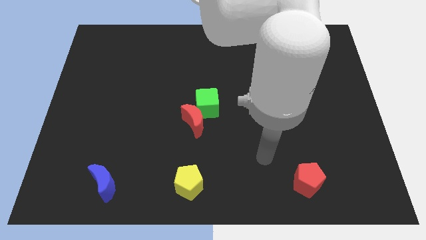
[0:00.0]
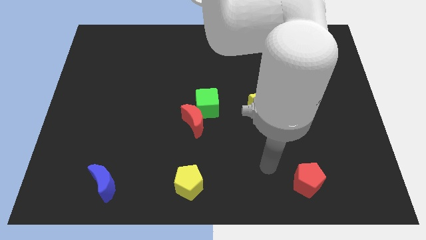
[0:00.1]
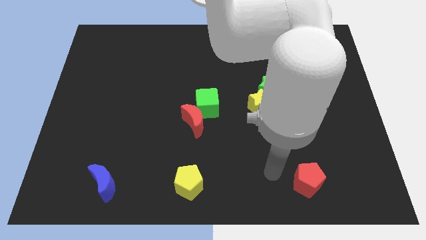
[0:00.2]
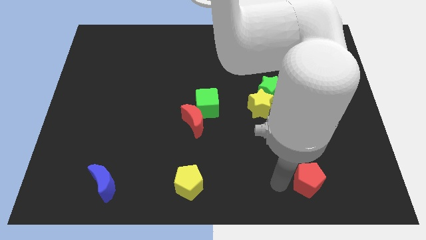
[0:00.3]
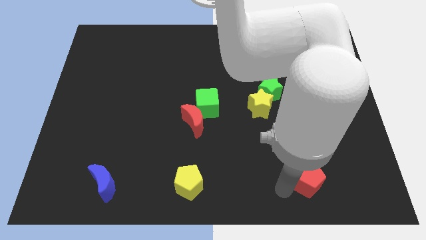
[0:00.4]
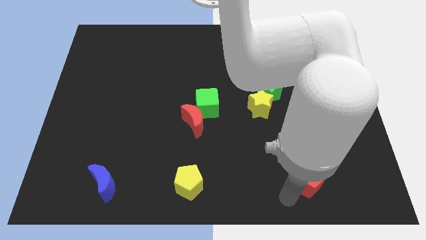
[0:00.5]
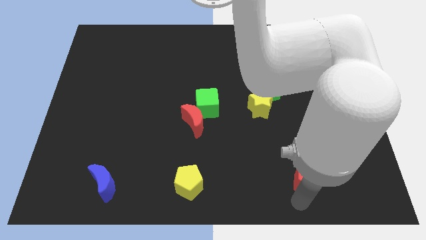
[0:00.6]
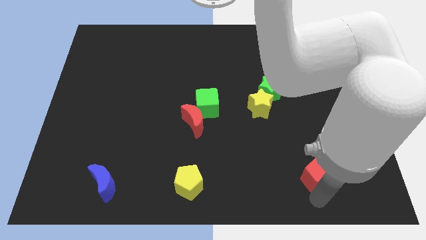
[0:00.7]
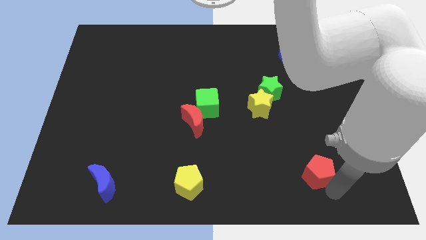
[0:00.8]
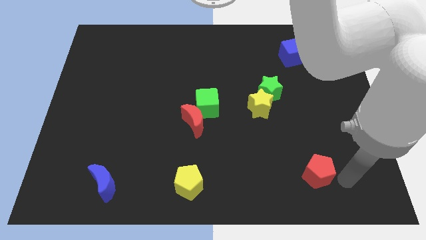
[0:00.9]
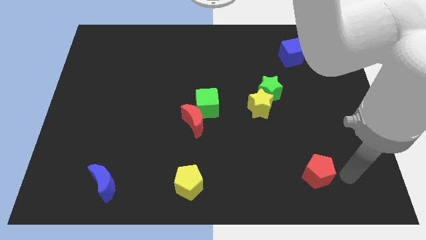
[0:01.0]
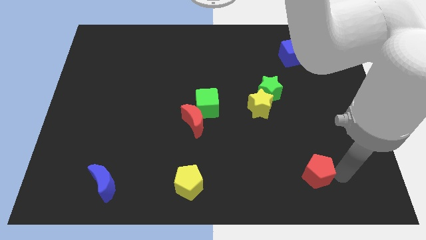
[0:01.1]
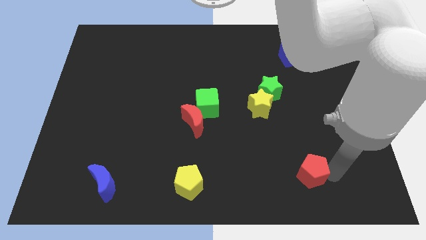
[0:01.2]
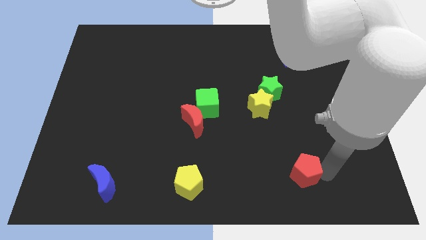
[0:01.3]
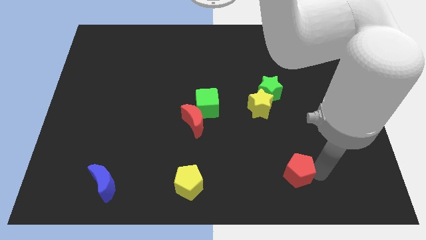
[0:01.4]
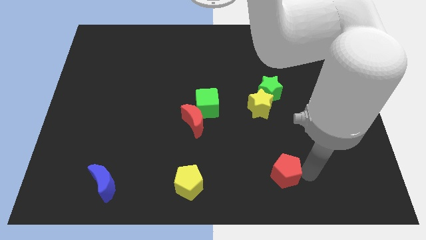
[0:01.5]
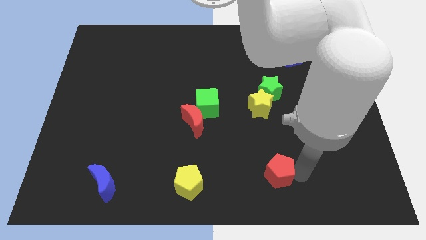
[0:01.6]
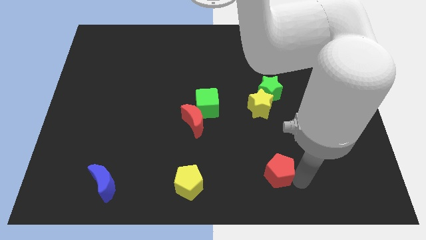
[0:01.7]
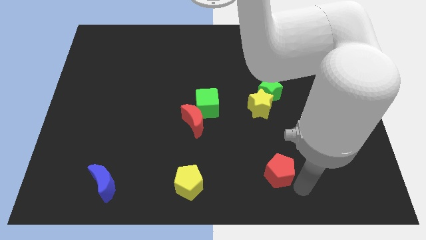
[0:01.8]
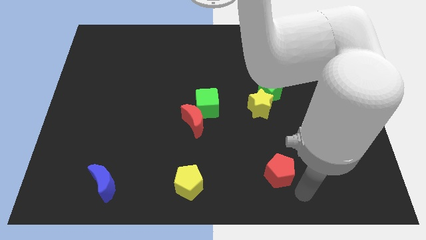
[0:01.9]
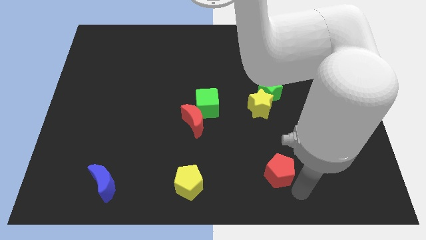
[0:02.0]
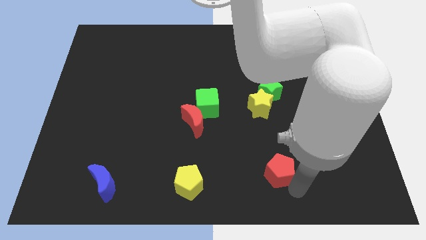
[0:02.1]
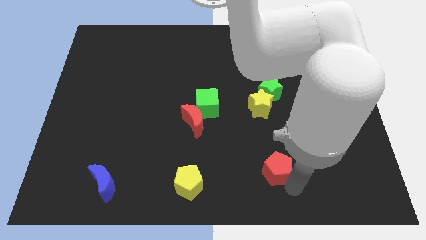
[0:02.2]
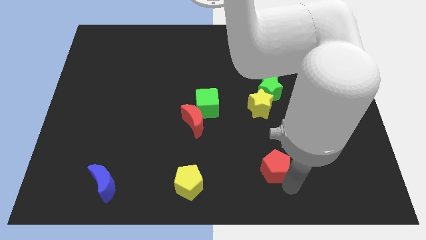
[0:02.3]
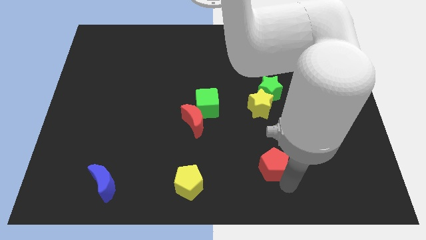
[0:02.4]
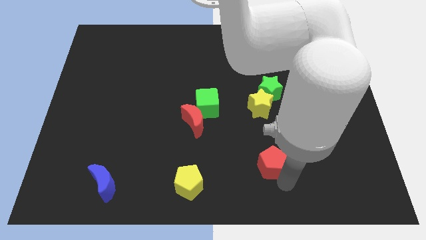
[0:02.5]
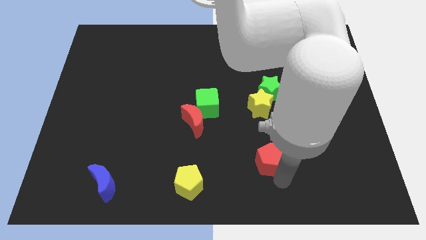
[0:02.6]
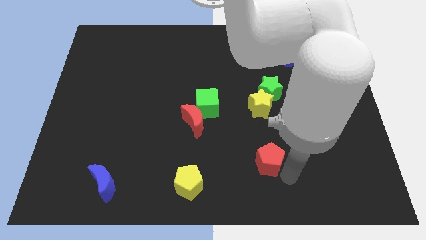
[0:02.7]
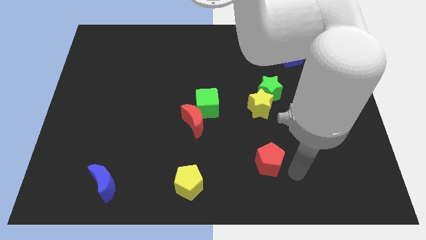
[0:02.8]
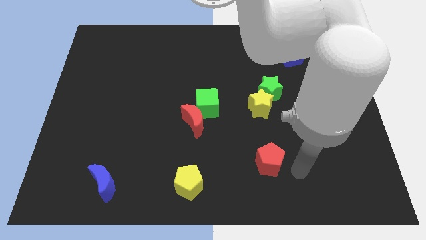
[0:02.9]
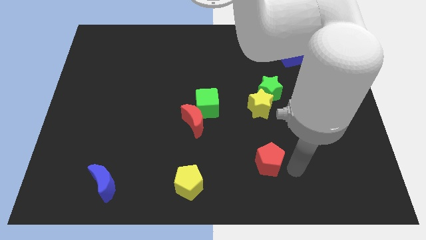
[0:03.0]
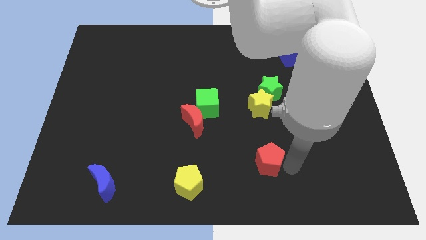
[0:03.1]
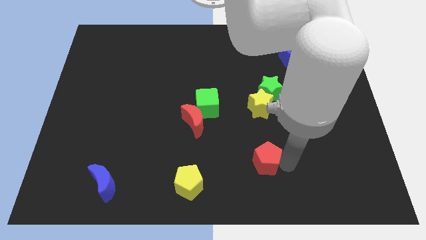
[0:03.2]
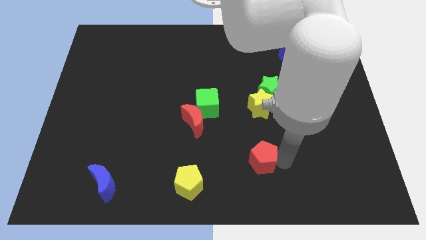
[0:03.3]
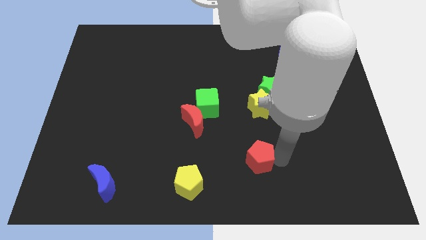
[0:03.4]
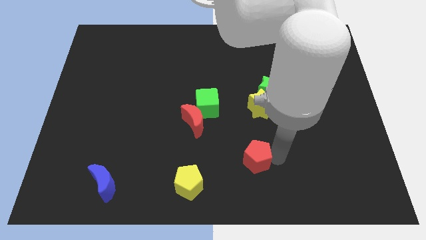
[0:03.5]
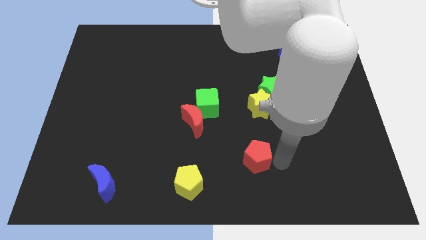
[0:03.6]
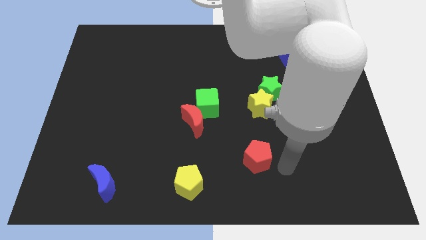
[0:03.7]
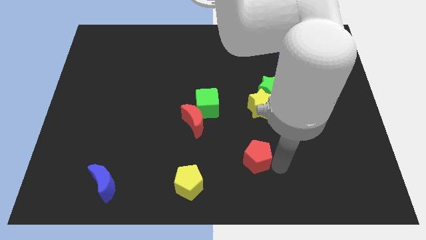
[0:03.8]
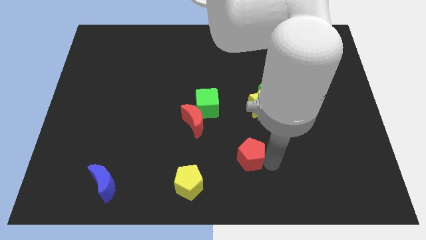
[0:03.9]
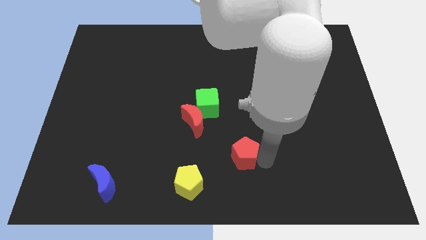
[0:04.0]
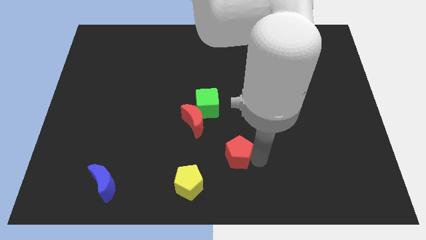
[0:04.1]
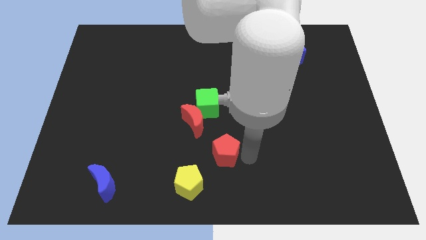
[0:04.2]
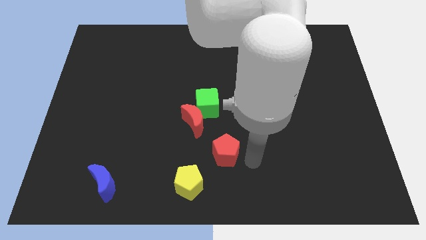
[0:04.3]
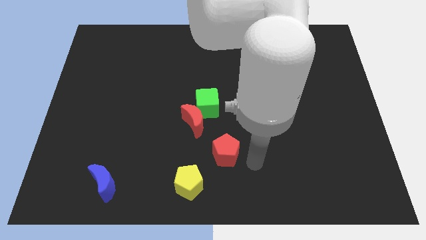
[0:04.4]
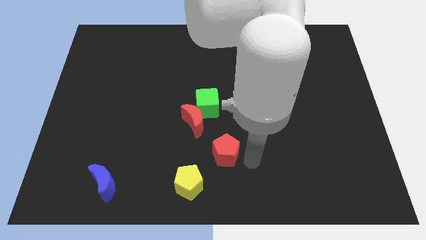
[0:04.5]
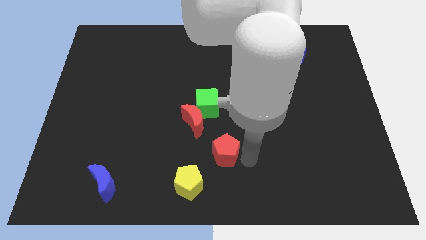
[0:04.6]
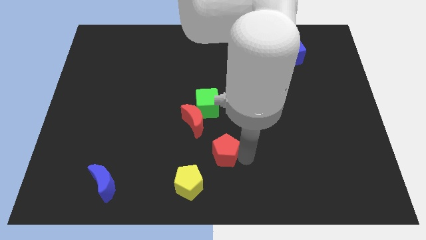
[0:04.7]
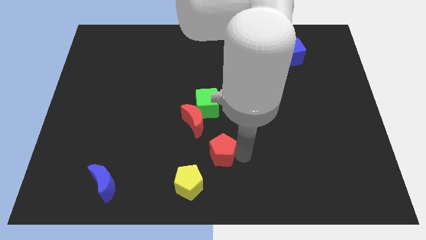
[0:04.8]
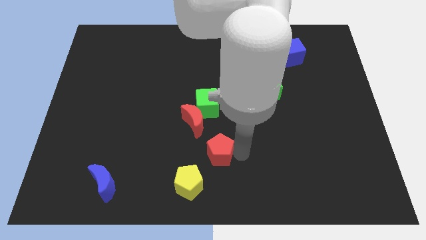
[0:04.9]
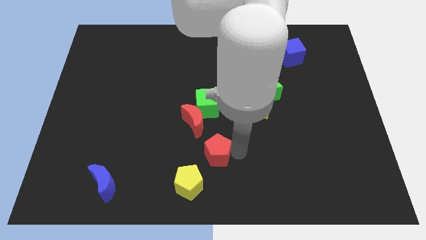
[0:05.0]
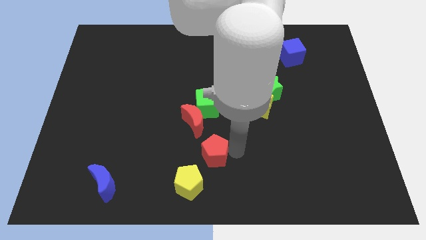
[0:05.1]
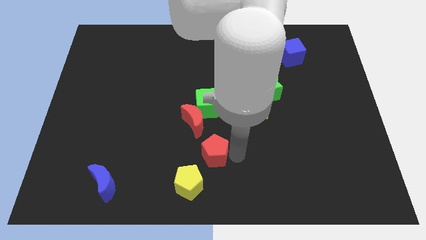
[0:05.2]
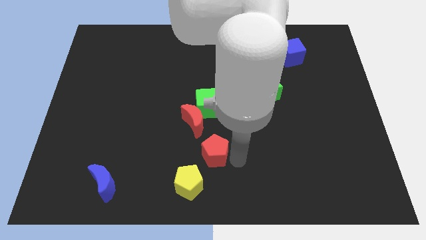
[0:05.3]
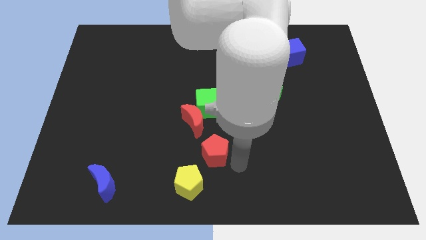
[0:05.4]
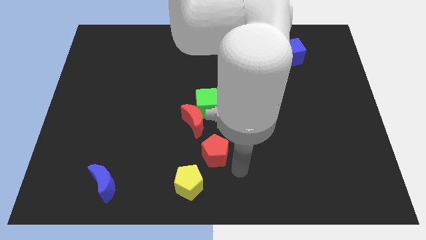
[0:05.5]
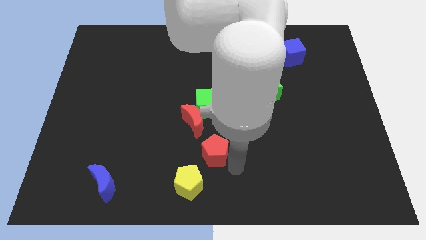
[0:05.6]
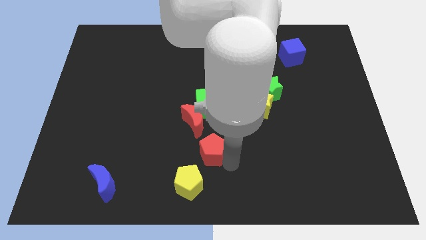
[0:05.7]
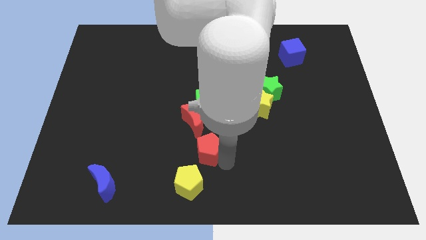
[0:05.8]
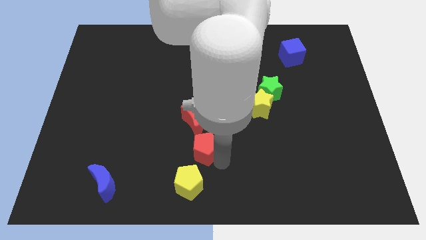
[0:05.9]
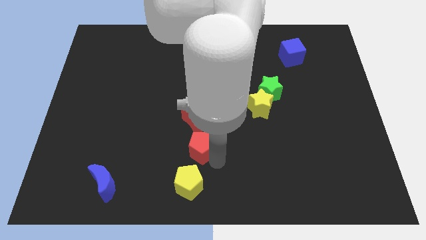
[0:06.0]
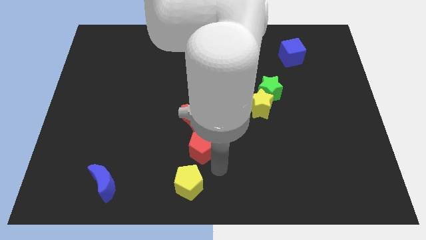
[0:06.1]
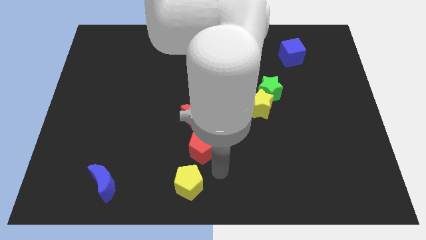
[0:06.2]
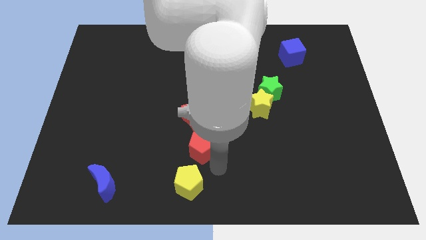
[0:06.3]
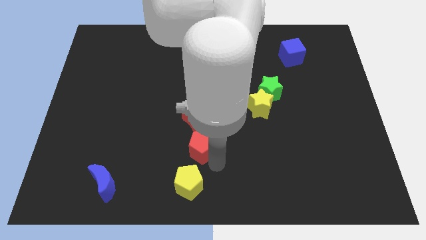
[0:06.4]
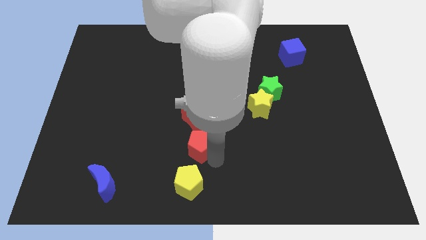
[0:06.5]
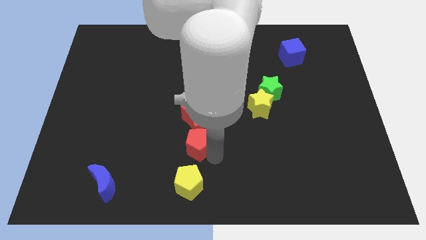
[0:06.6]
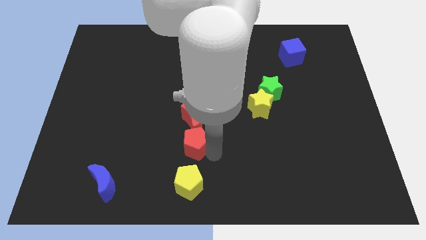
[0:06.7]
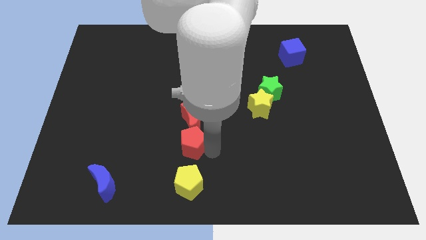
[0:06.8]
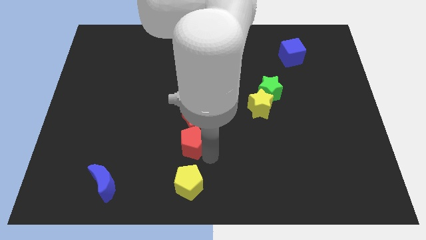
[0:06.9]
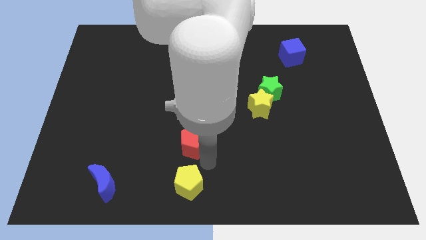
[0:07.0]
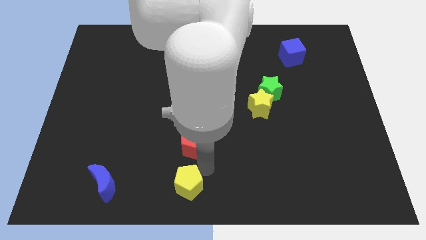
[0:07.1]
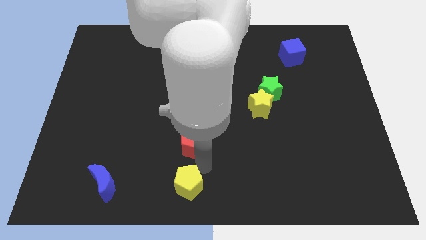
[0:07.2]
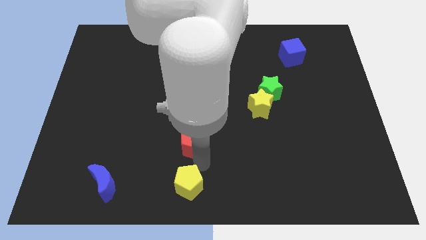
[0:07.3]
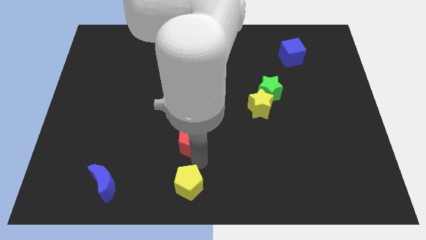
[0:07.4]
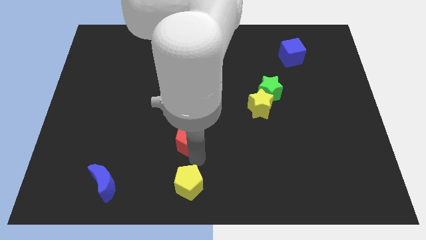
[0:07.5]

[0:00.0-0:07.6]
move the red pentagon to the bottom left side of the green cube
